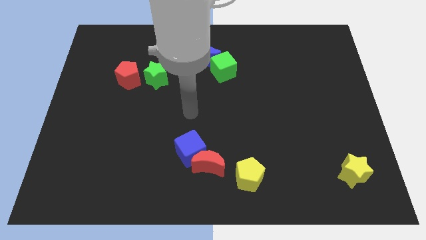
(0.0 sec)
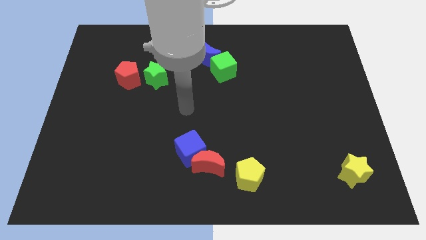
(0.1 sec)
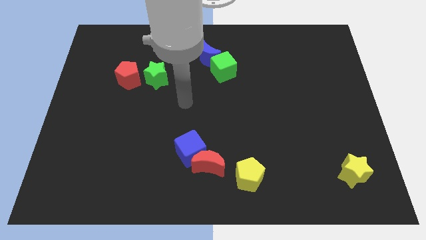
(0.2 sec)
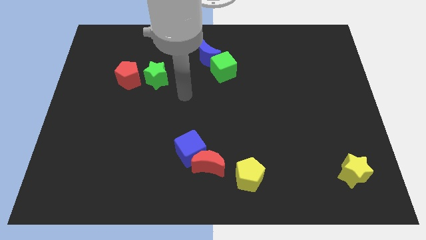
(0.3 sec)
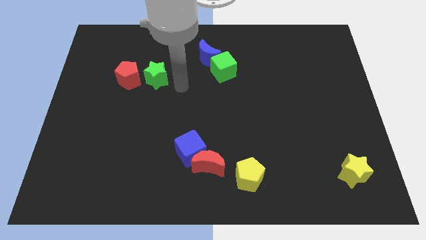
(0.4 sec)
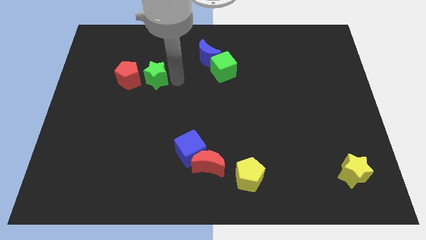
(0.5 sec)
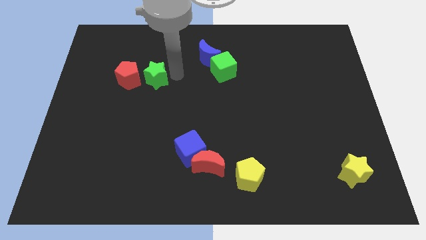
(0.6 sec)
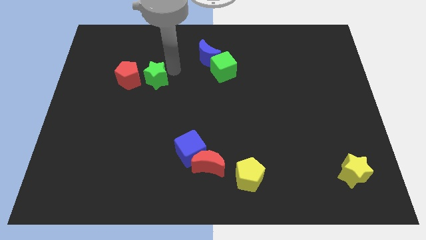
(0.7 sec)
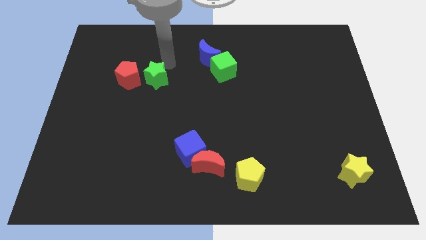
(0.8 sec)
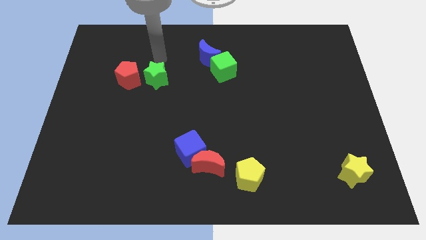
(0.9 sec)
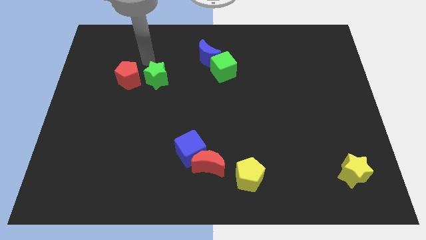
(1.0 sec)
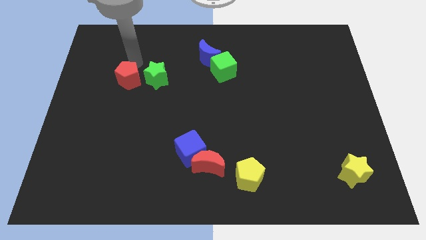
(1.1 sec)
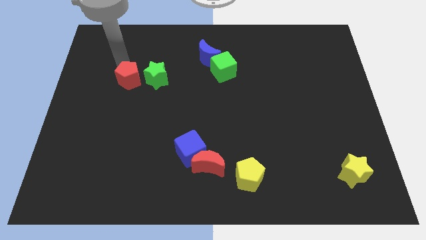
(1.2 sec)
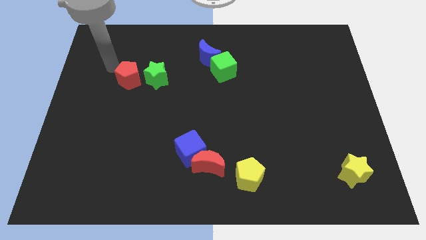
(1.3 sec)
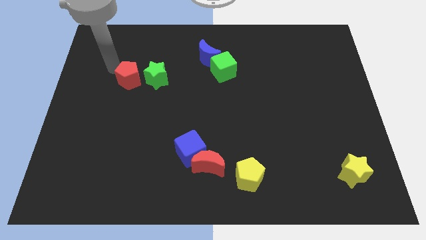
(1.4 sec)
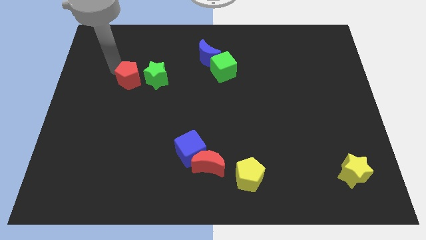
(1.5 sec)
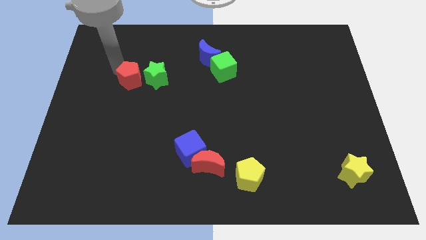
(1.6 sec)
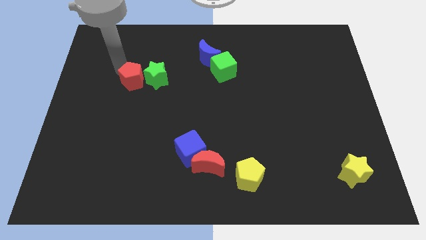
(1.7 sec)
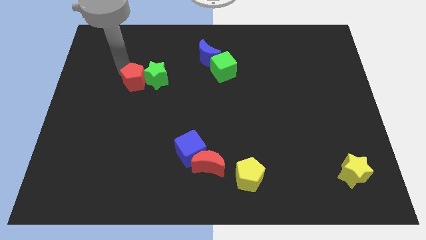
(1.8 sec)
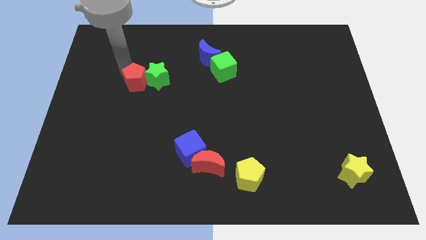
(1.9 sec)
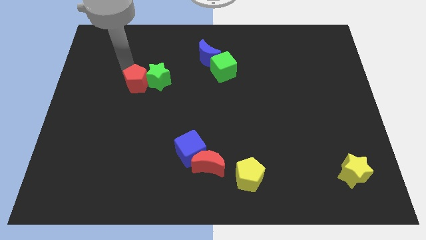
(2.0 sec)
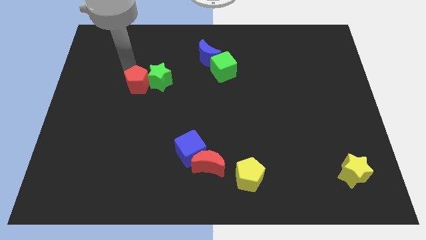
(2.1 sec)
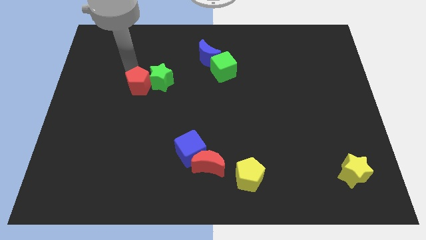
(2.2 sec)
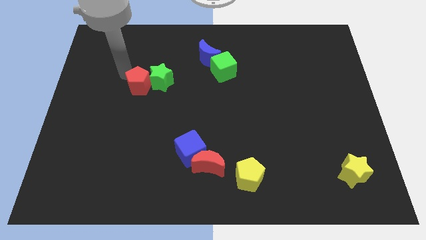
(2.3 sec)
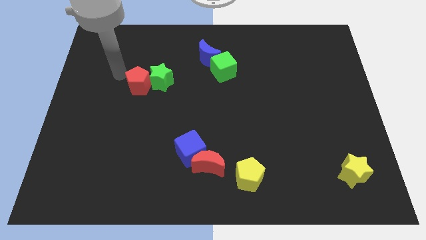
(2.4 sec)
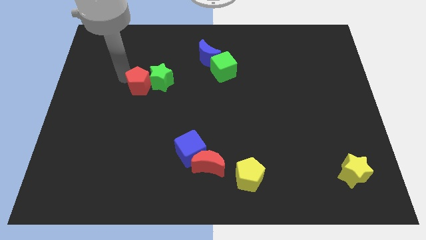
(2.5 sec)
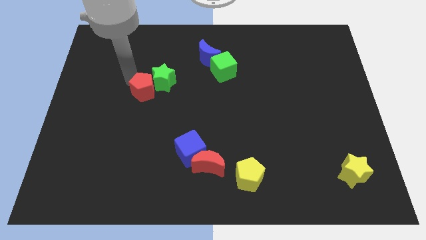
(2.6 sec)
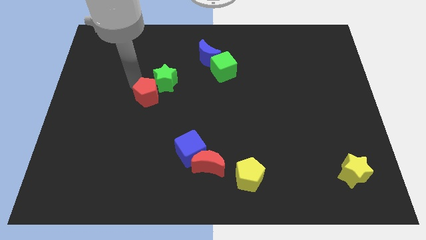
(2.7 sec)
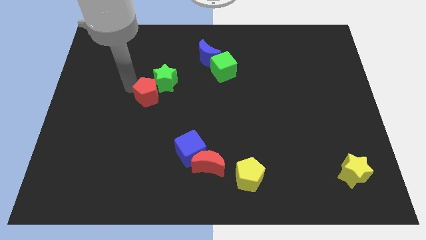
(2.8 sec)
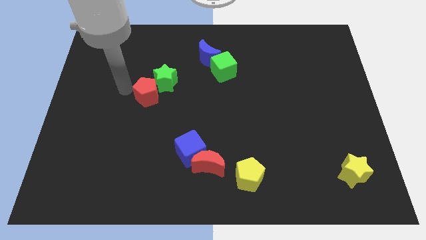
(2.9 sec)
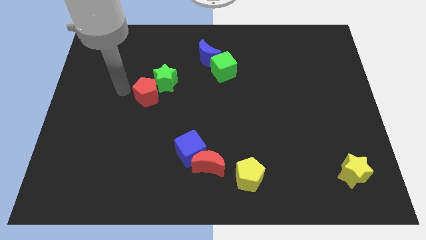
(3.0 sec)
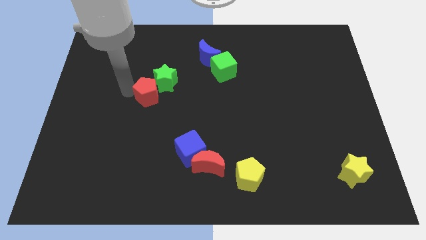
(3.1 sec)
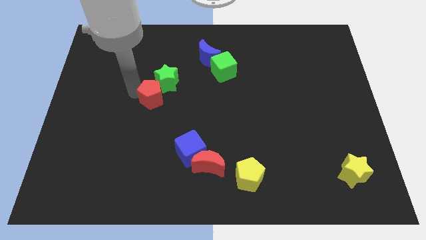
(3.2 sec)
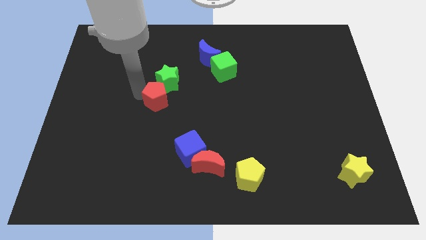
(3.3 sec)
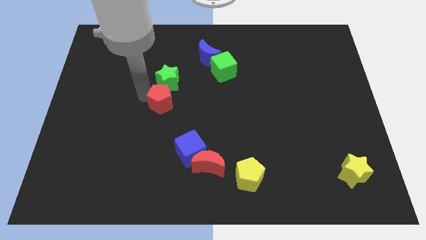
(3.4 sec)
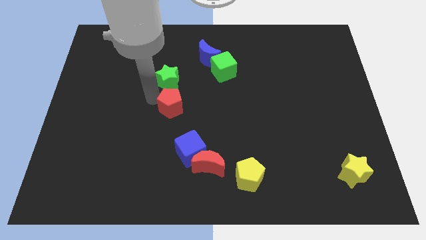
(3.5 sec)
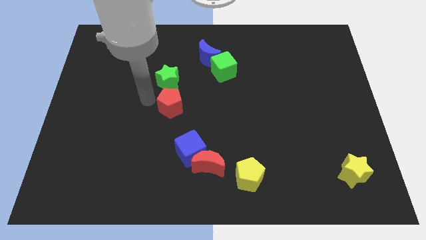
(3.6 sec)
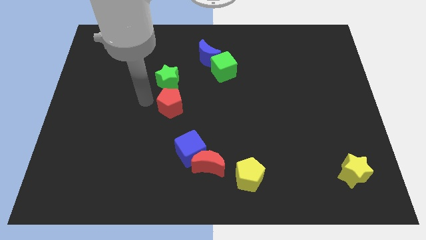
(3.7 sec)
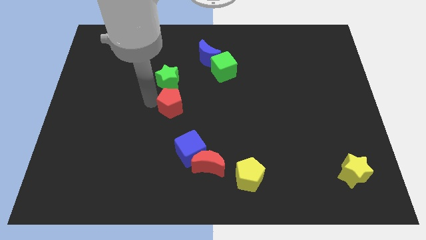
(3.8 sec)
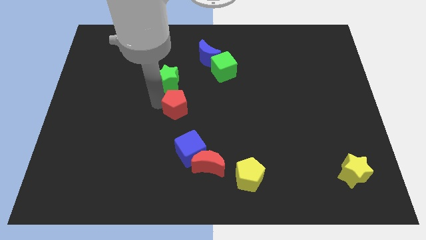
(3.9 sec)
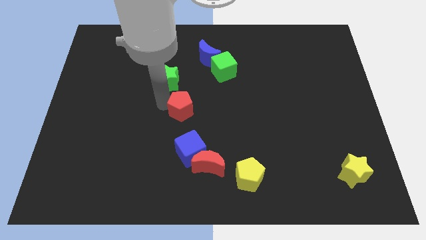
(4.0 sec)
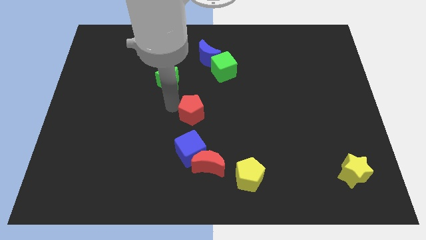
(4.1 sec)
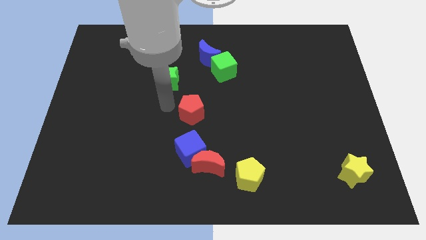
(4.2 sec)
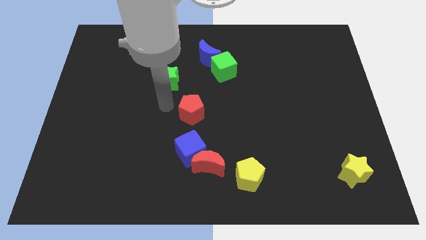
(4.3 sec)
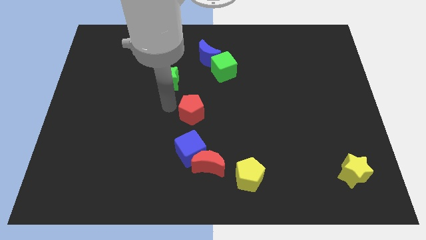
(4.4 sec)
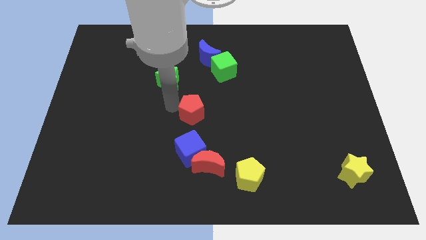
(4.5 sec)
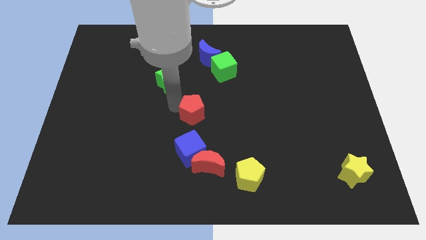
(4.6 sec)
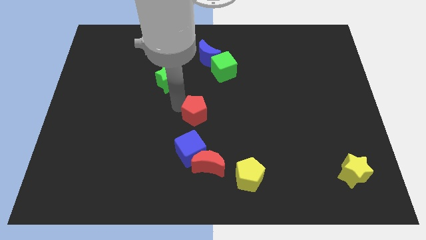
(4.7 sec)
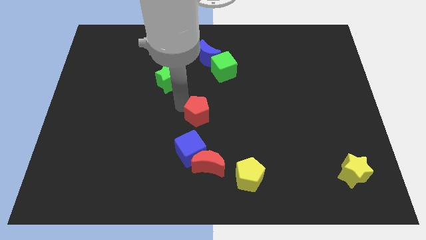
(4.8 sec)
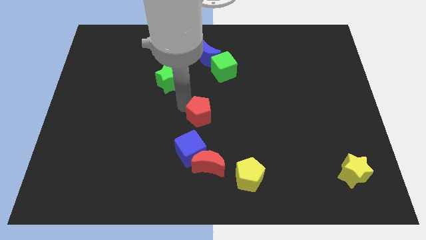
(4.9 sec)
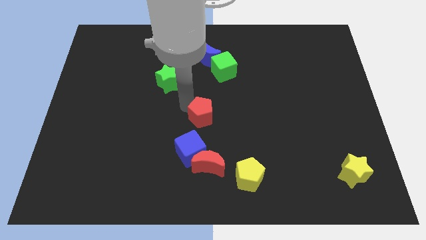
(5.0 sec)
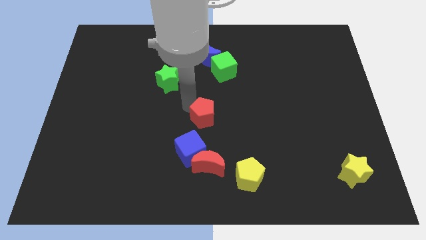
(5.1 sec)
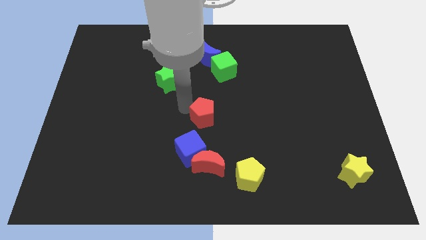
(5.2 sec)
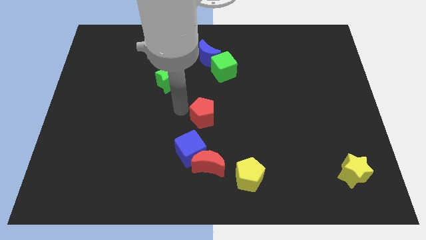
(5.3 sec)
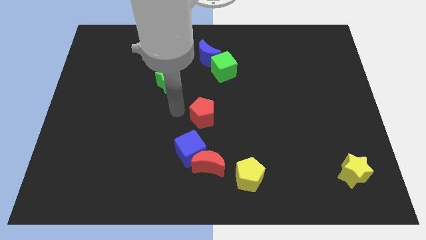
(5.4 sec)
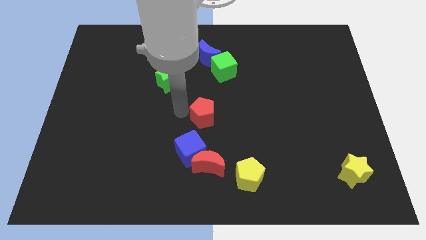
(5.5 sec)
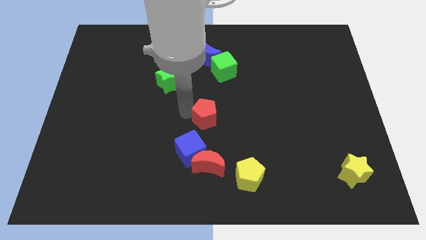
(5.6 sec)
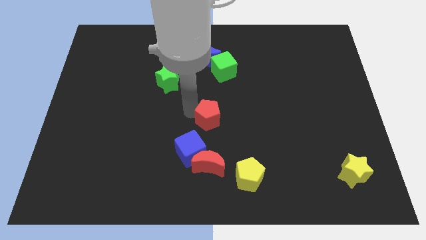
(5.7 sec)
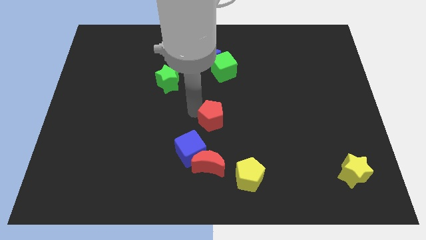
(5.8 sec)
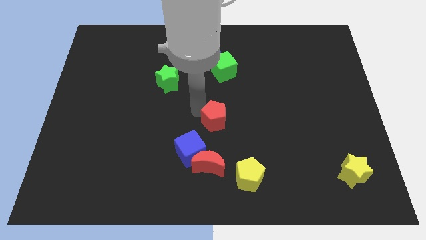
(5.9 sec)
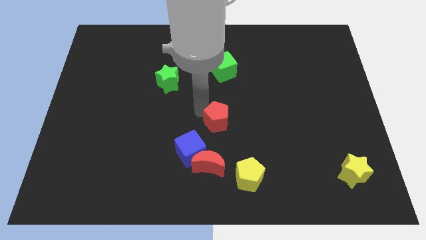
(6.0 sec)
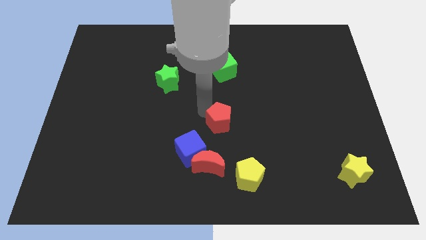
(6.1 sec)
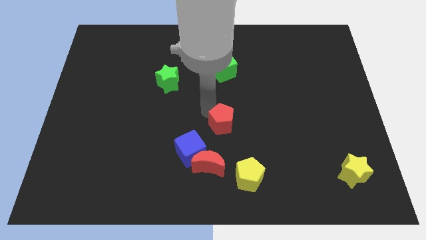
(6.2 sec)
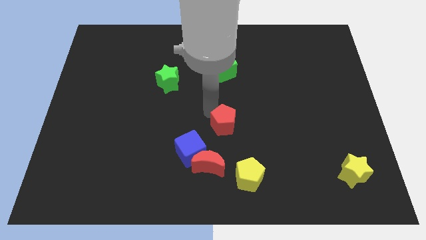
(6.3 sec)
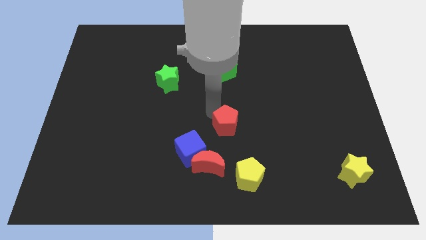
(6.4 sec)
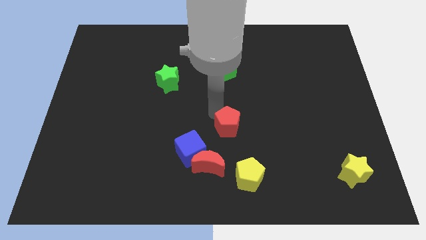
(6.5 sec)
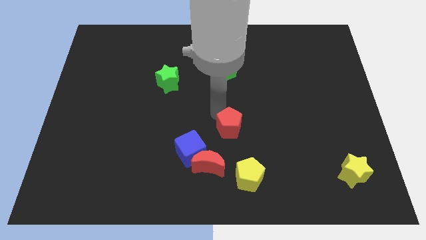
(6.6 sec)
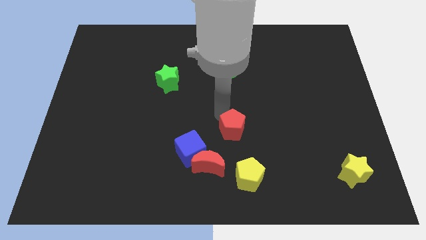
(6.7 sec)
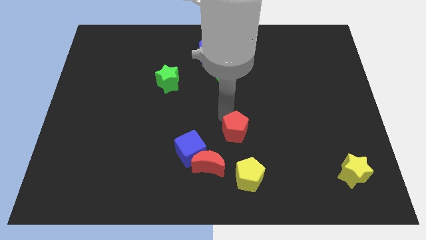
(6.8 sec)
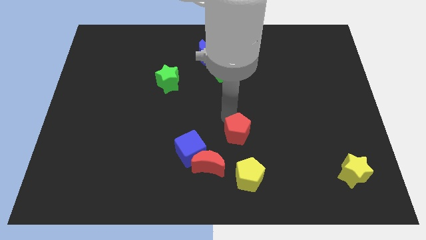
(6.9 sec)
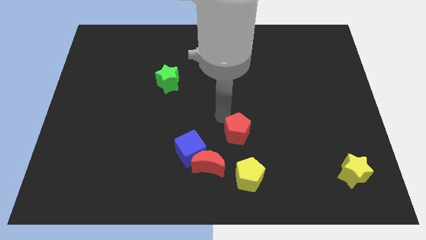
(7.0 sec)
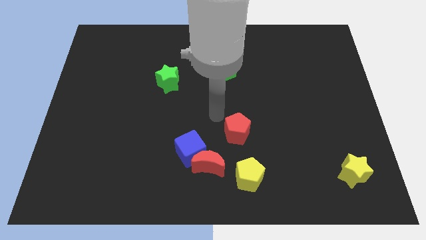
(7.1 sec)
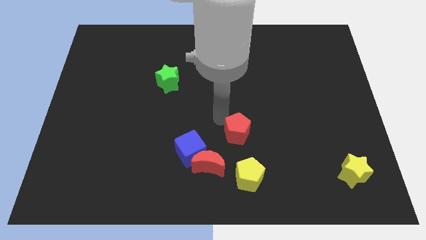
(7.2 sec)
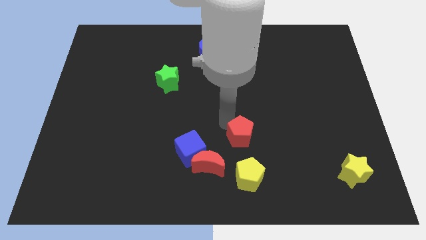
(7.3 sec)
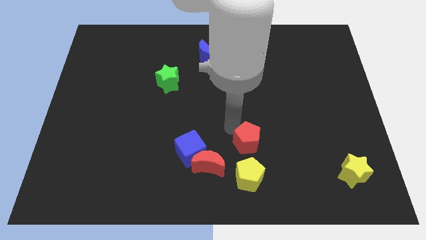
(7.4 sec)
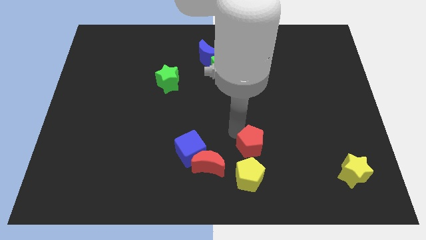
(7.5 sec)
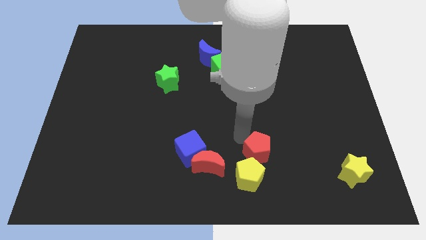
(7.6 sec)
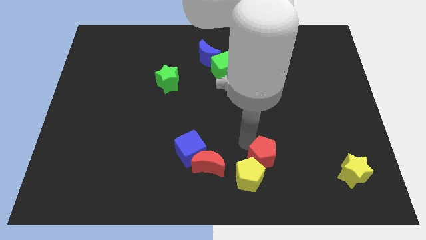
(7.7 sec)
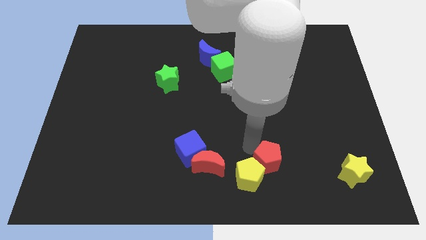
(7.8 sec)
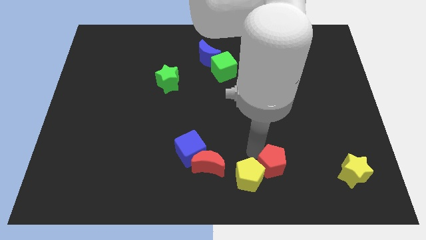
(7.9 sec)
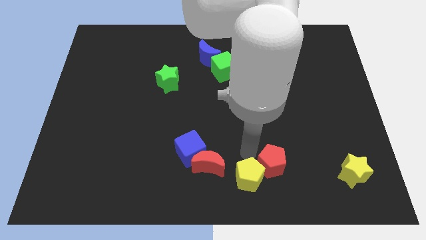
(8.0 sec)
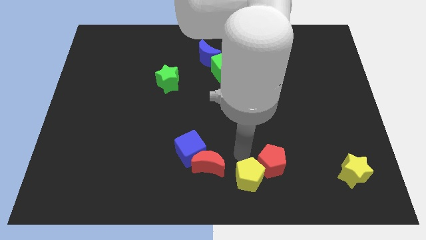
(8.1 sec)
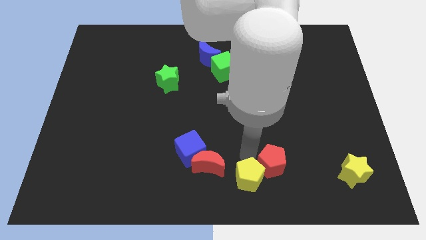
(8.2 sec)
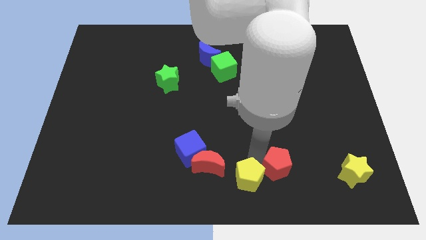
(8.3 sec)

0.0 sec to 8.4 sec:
push the red pentagon left of the yellow star
